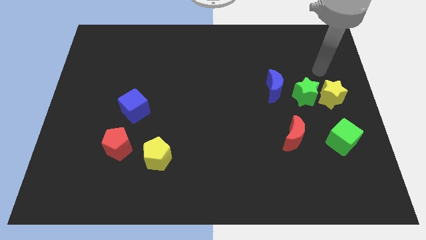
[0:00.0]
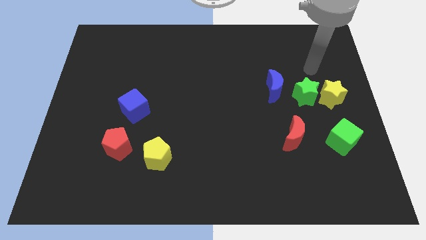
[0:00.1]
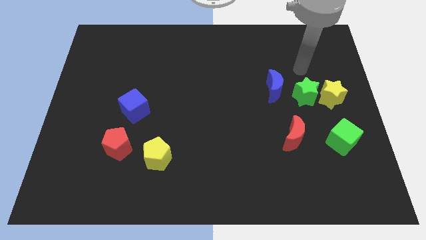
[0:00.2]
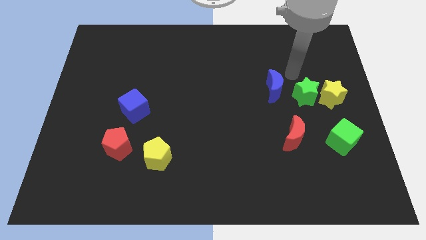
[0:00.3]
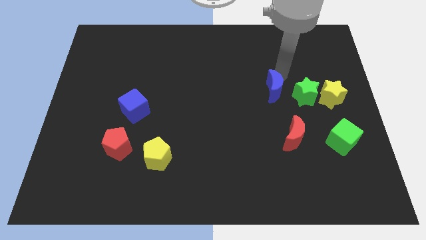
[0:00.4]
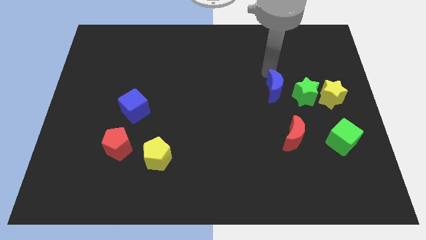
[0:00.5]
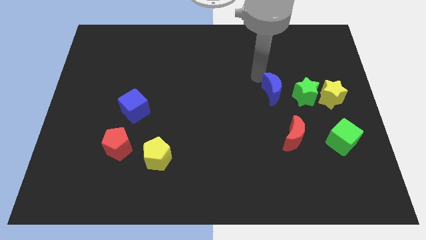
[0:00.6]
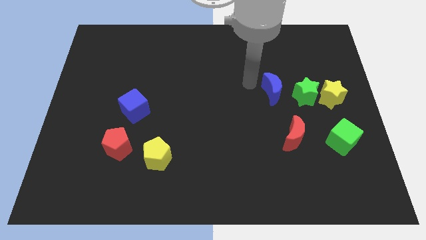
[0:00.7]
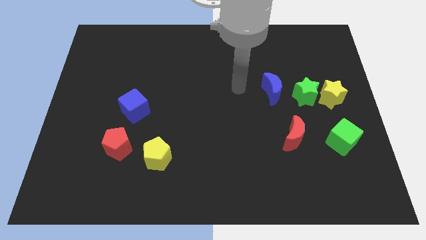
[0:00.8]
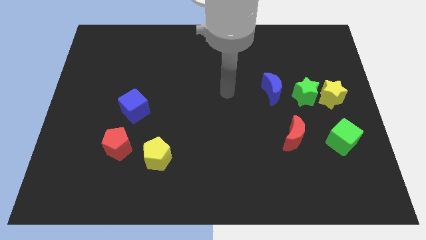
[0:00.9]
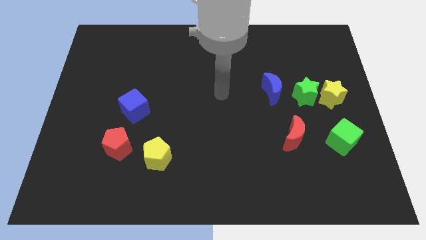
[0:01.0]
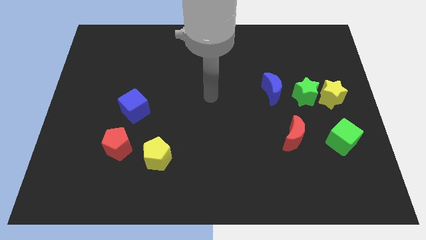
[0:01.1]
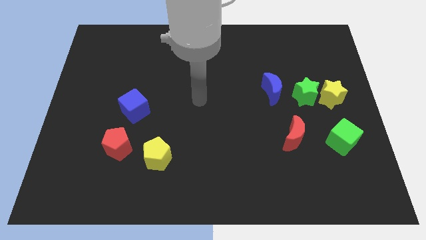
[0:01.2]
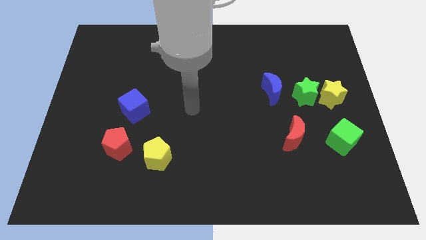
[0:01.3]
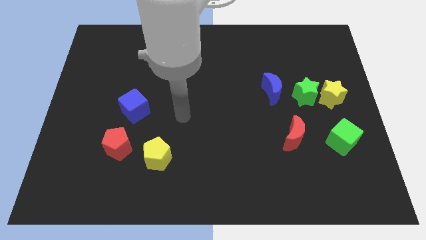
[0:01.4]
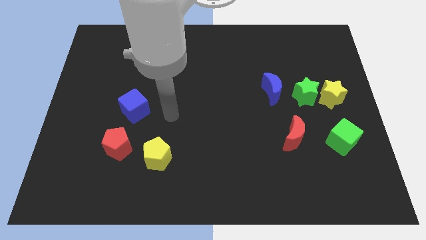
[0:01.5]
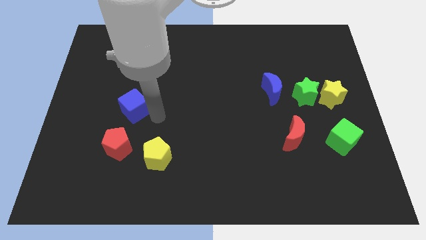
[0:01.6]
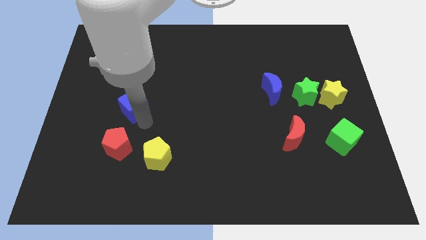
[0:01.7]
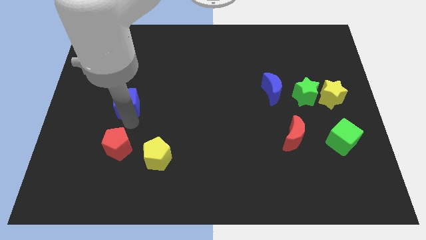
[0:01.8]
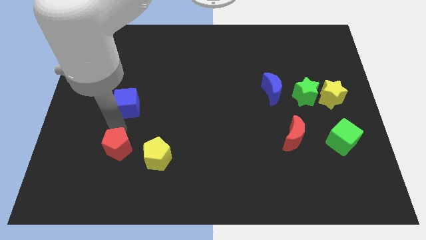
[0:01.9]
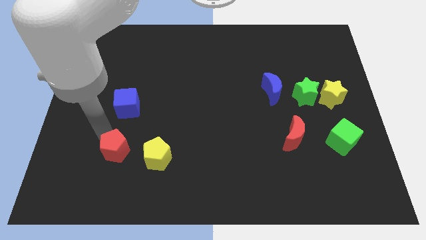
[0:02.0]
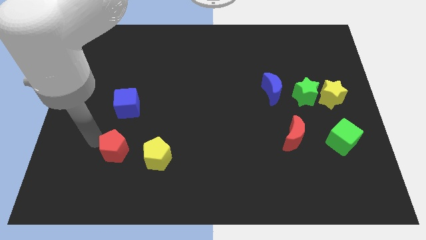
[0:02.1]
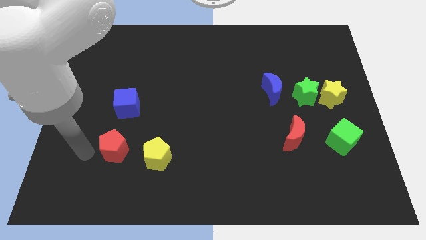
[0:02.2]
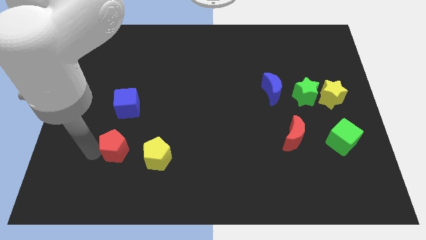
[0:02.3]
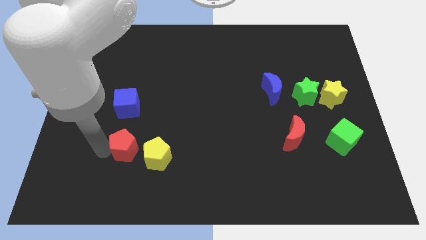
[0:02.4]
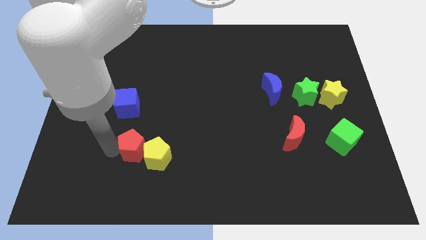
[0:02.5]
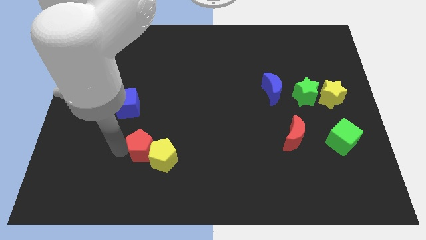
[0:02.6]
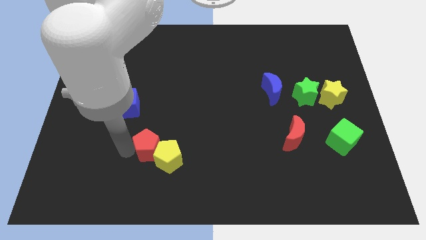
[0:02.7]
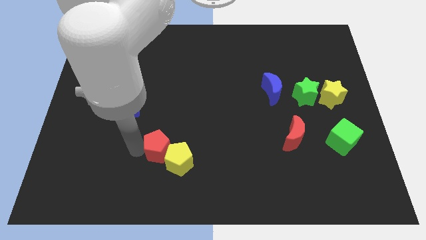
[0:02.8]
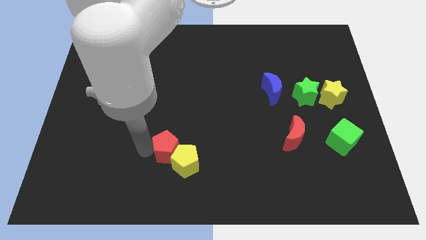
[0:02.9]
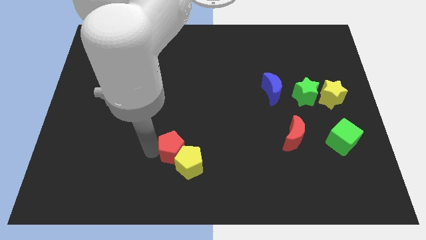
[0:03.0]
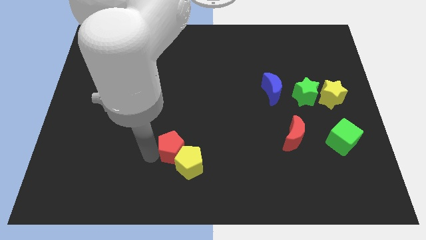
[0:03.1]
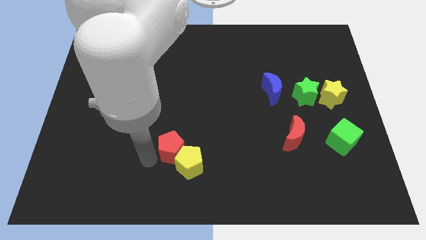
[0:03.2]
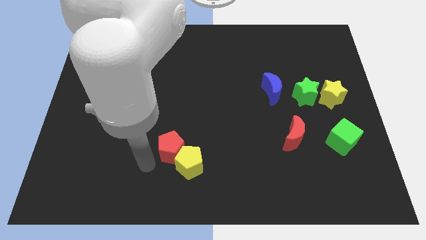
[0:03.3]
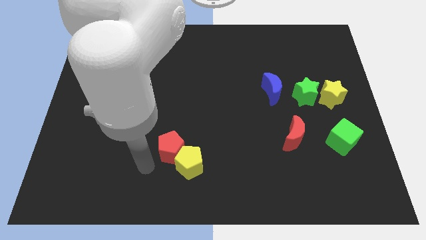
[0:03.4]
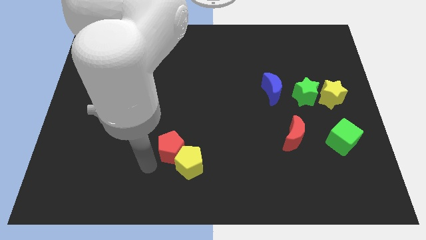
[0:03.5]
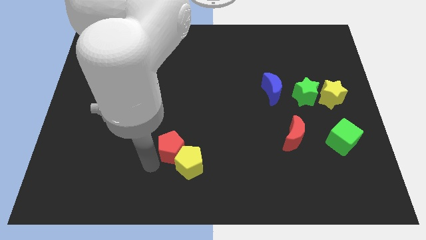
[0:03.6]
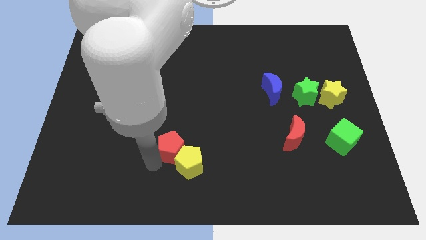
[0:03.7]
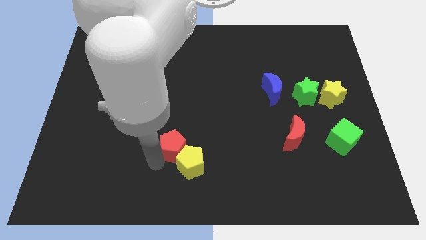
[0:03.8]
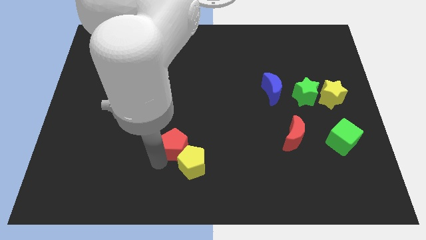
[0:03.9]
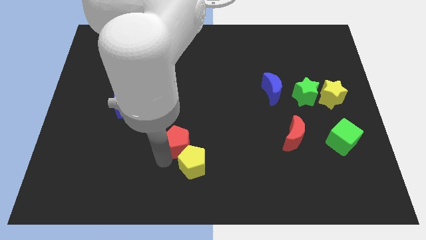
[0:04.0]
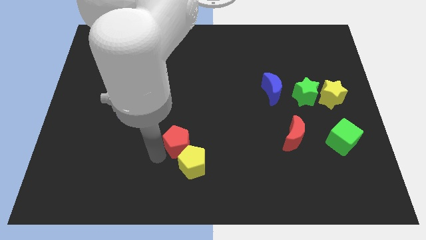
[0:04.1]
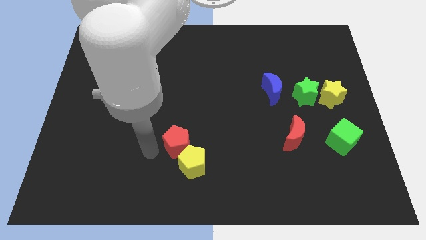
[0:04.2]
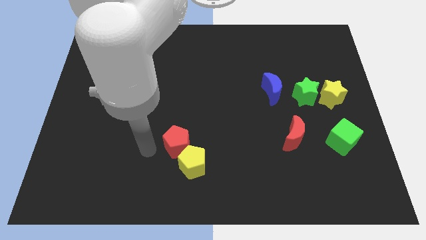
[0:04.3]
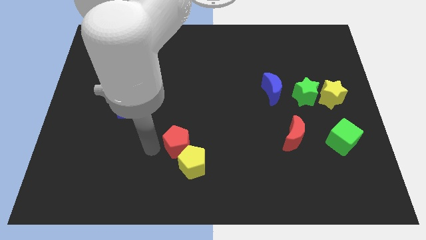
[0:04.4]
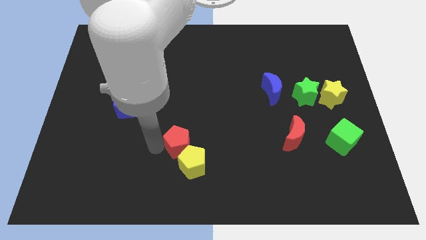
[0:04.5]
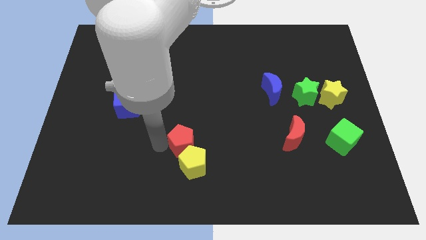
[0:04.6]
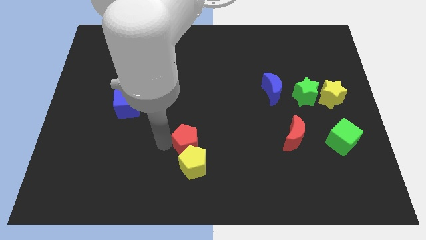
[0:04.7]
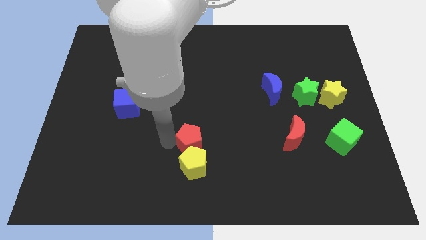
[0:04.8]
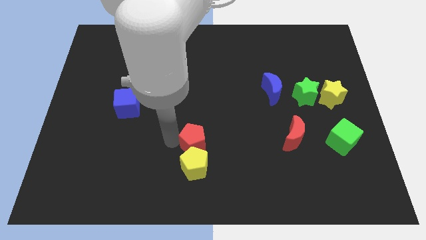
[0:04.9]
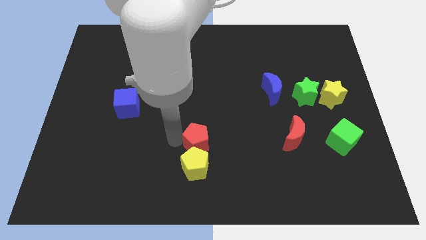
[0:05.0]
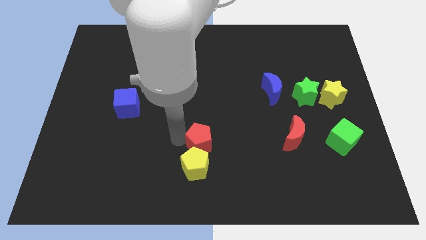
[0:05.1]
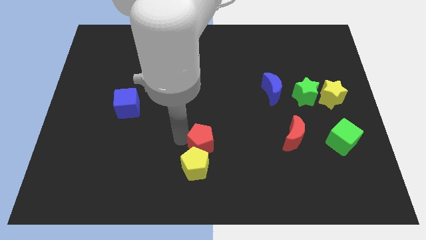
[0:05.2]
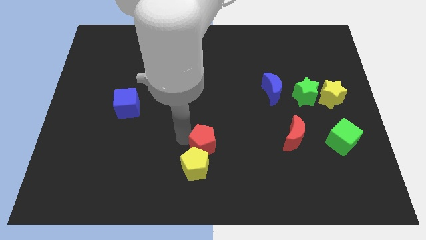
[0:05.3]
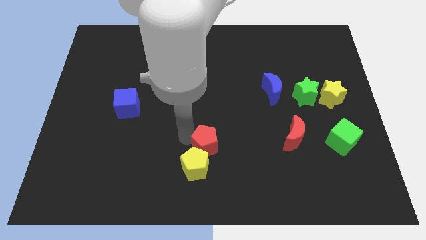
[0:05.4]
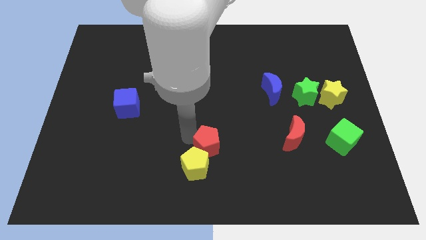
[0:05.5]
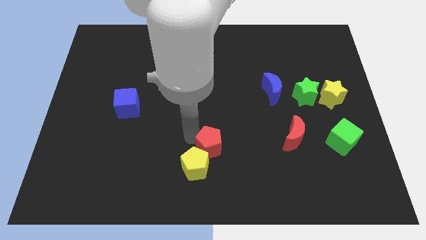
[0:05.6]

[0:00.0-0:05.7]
push the red pentagon right

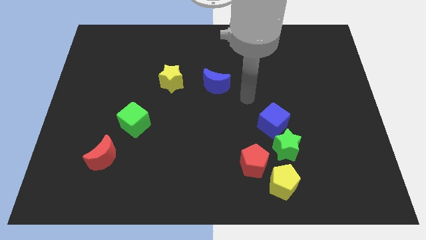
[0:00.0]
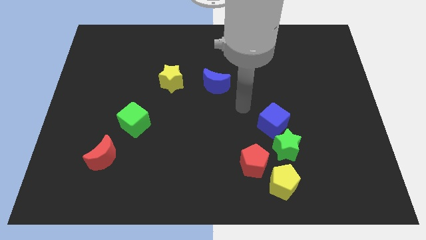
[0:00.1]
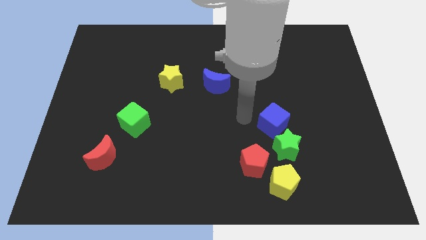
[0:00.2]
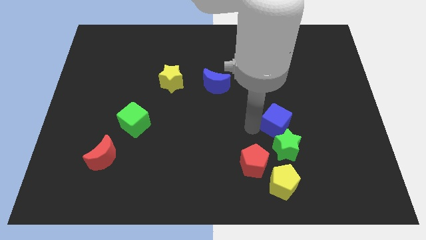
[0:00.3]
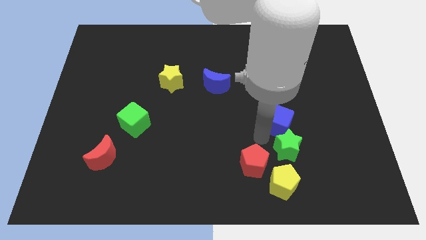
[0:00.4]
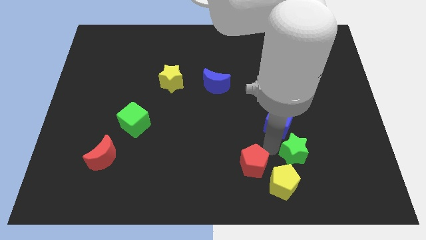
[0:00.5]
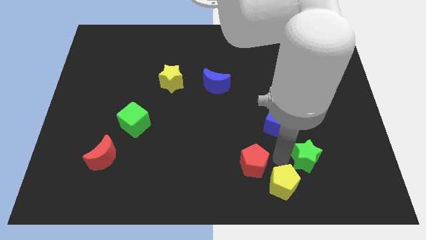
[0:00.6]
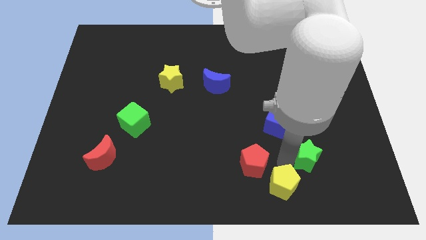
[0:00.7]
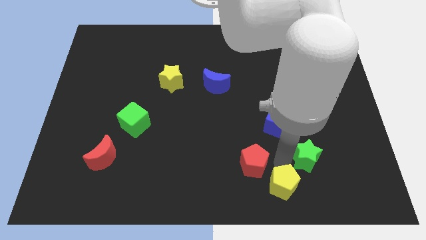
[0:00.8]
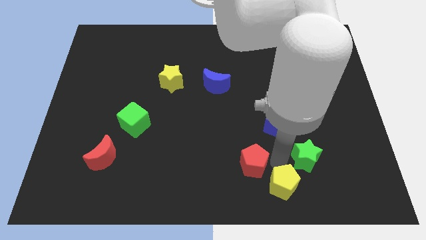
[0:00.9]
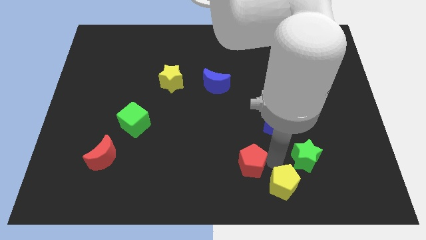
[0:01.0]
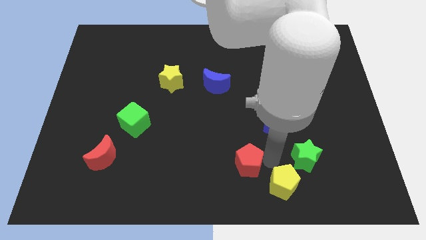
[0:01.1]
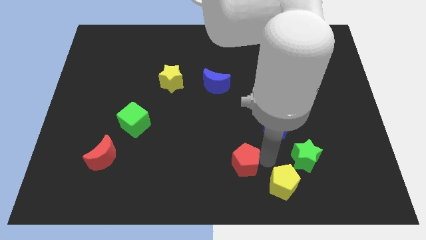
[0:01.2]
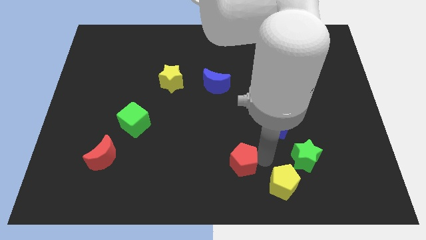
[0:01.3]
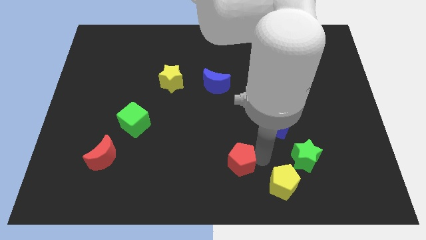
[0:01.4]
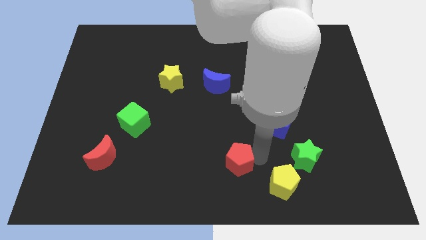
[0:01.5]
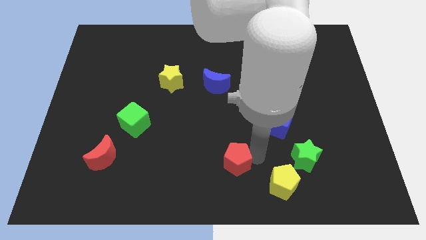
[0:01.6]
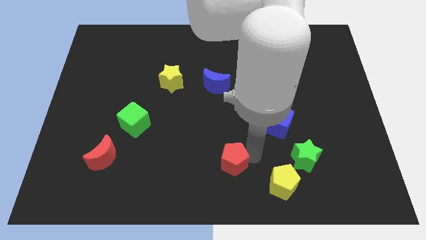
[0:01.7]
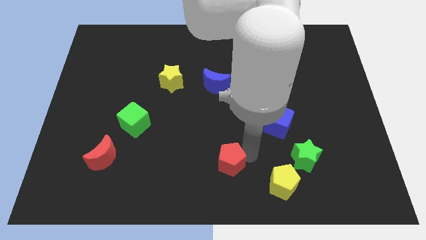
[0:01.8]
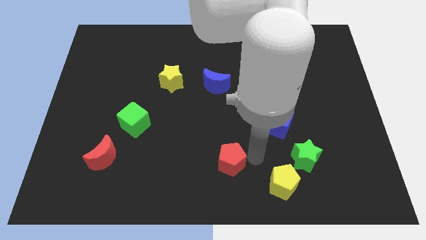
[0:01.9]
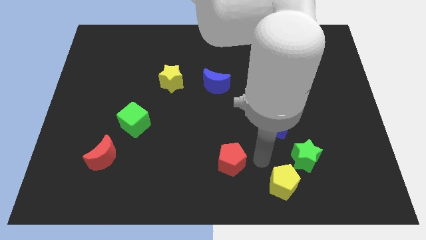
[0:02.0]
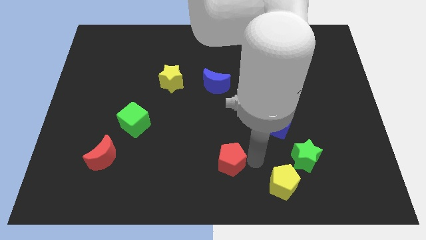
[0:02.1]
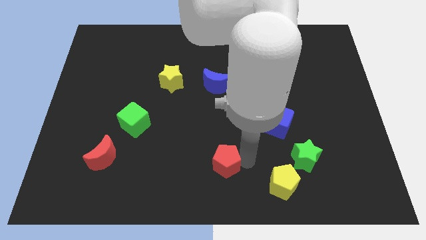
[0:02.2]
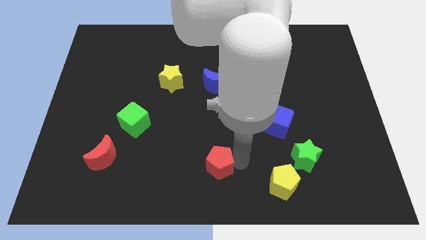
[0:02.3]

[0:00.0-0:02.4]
move the red pentagon left somewhat

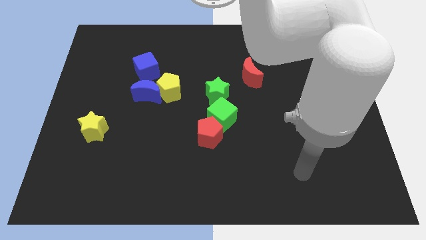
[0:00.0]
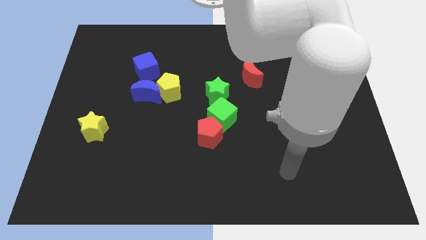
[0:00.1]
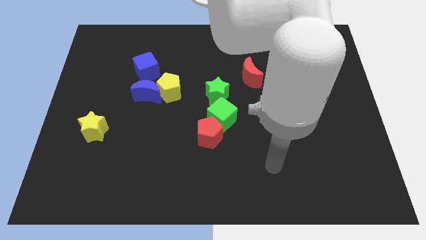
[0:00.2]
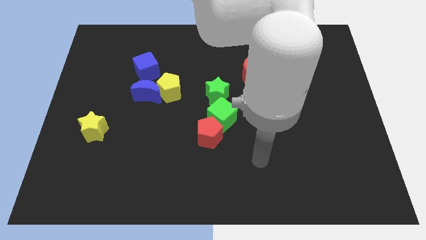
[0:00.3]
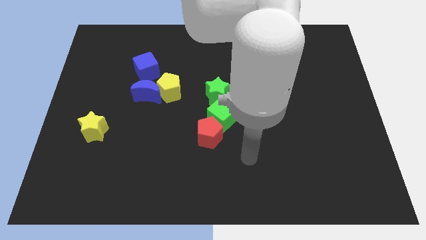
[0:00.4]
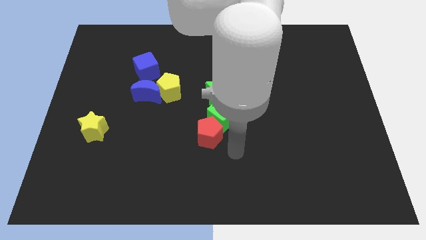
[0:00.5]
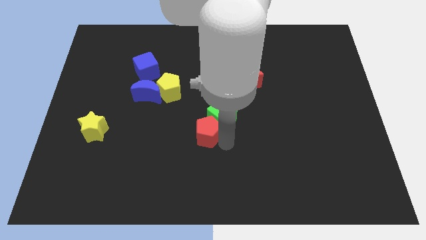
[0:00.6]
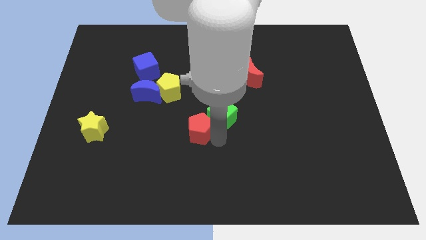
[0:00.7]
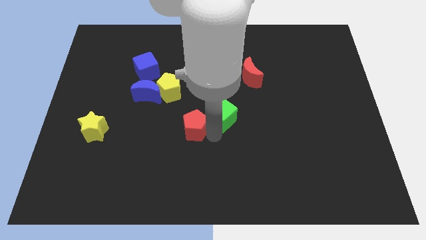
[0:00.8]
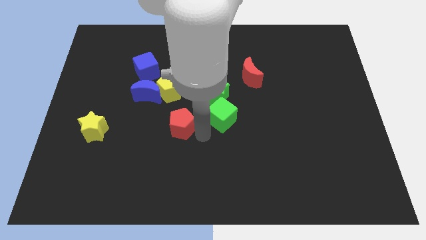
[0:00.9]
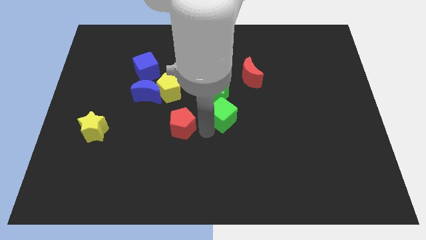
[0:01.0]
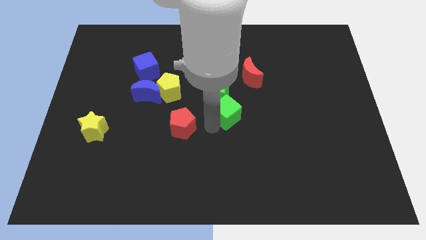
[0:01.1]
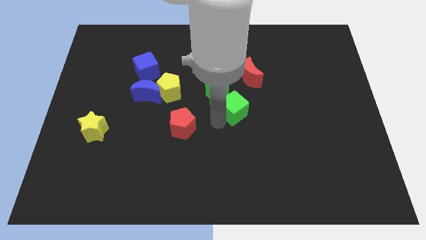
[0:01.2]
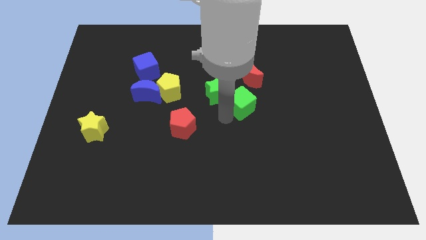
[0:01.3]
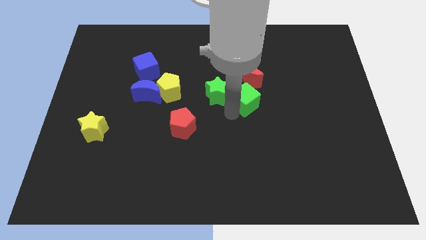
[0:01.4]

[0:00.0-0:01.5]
push the green cube diagonally upwards and right a bit
